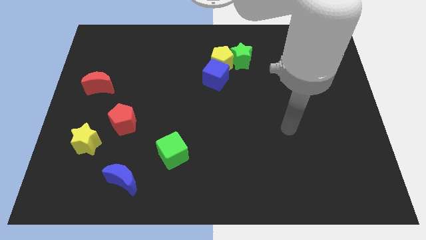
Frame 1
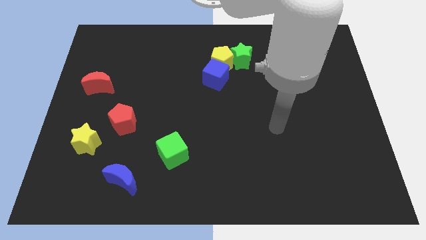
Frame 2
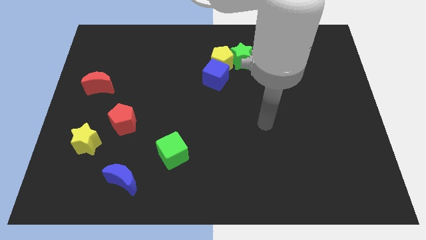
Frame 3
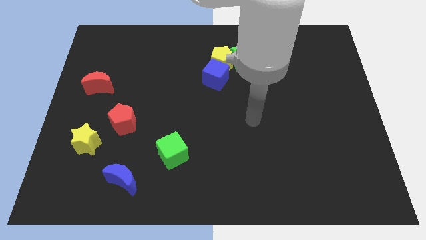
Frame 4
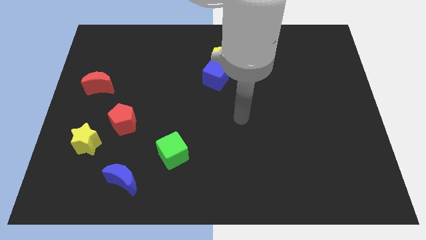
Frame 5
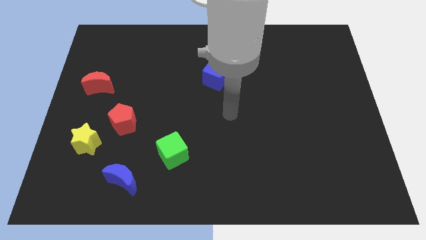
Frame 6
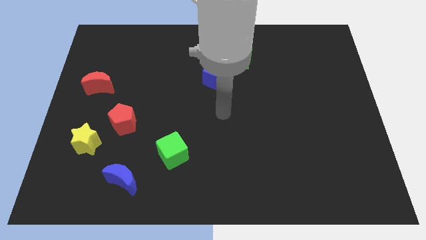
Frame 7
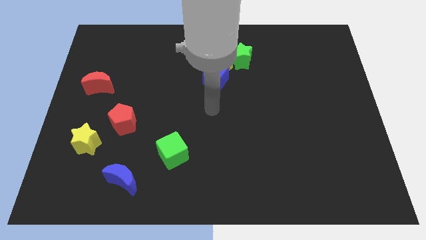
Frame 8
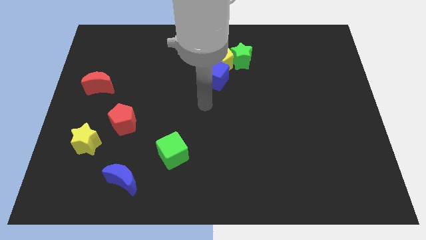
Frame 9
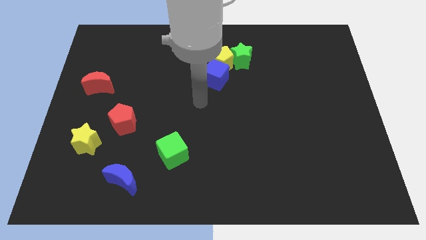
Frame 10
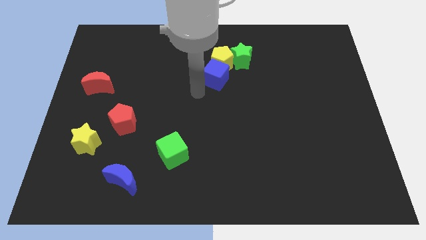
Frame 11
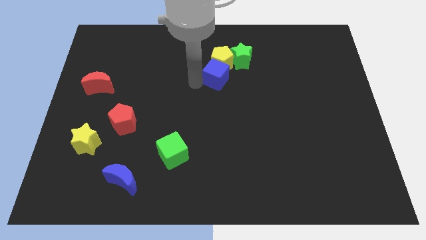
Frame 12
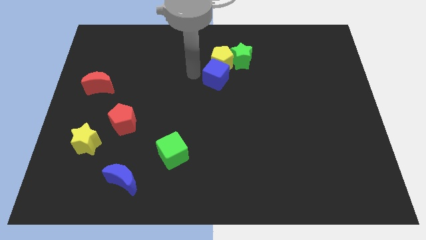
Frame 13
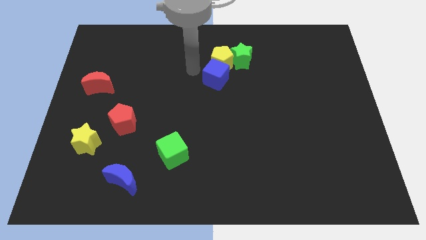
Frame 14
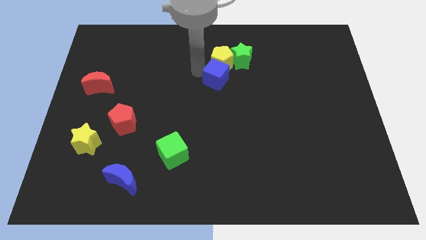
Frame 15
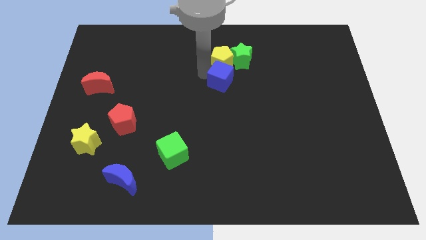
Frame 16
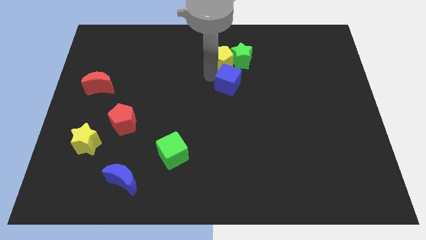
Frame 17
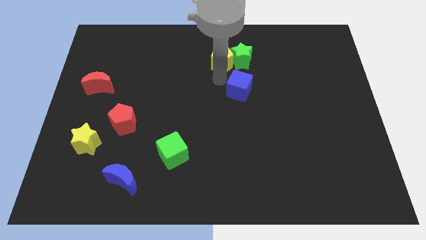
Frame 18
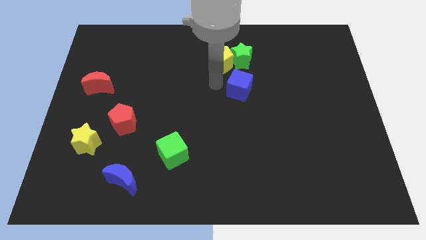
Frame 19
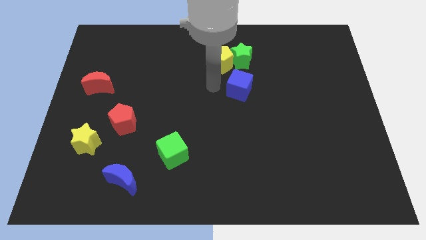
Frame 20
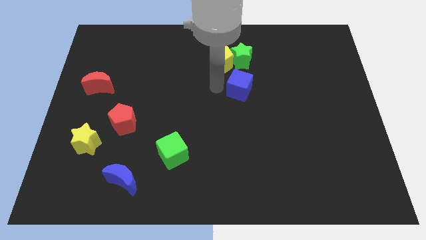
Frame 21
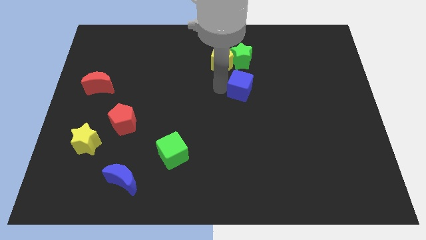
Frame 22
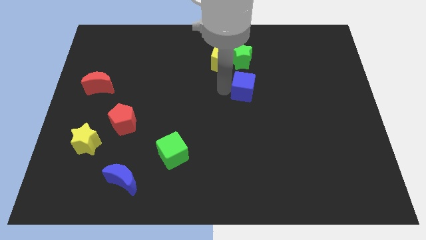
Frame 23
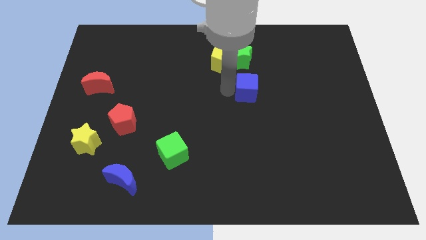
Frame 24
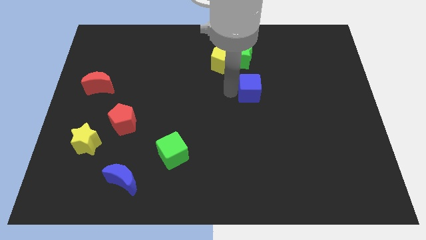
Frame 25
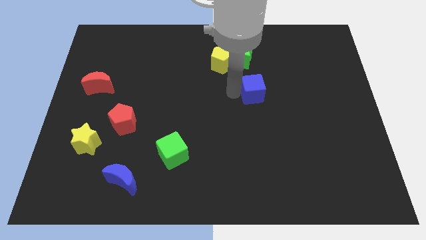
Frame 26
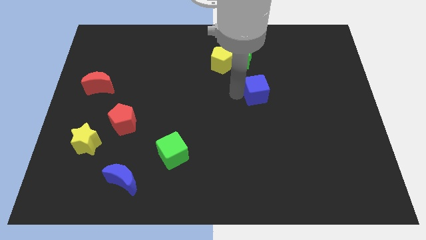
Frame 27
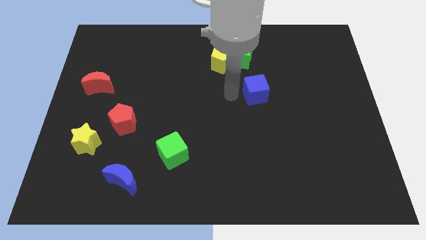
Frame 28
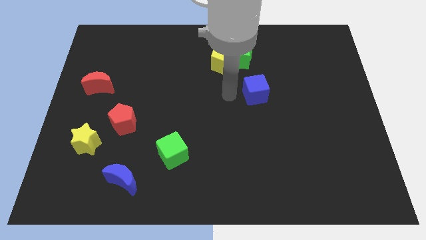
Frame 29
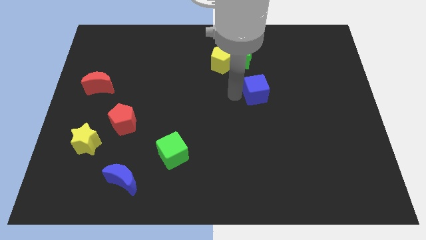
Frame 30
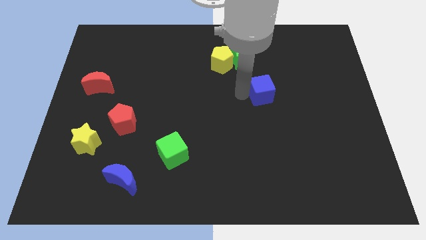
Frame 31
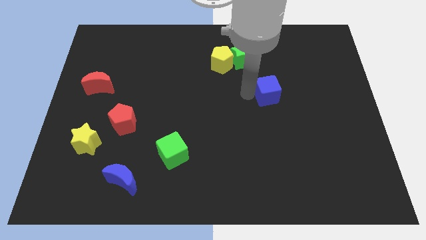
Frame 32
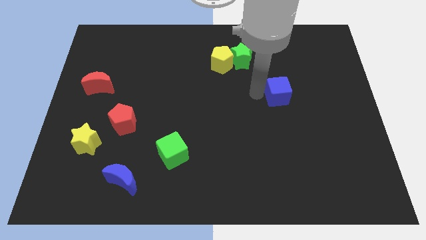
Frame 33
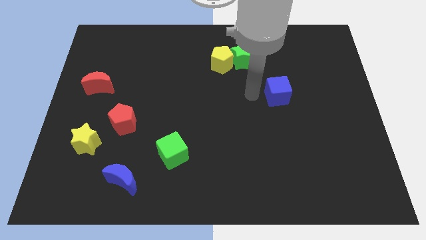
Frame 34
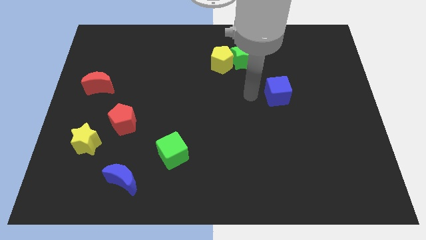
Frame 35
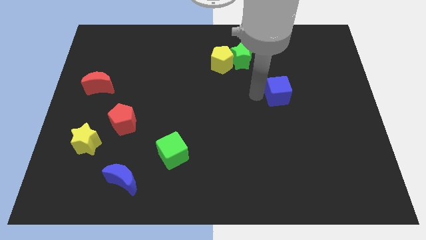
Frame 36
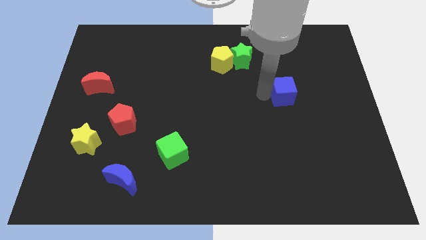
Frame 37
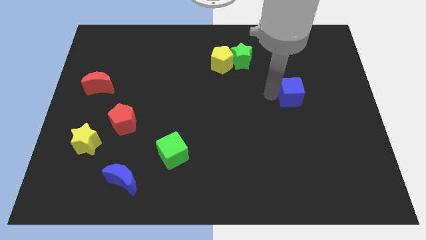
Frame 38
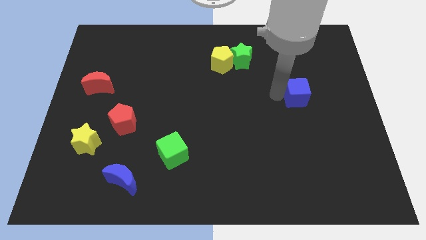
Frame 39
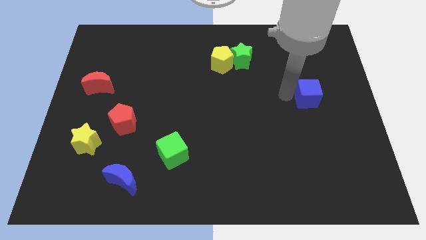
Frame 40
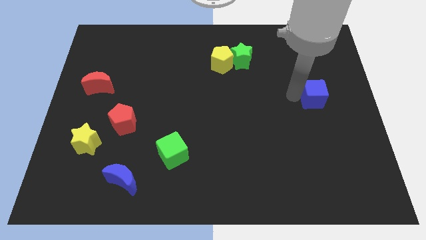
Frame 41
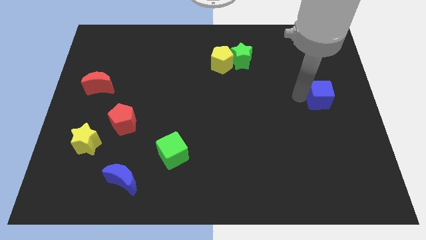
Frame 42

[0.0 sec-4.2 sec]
put the blue cube to the right side

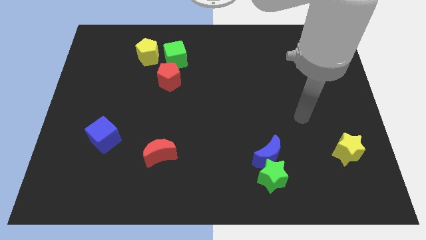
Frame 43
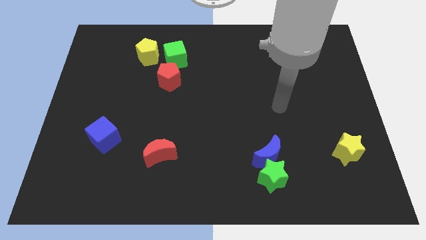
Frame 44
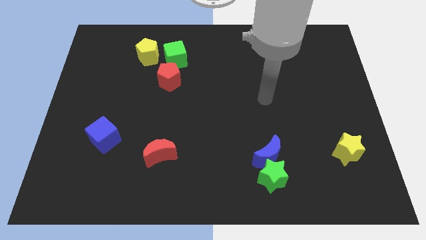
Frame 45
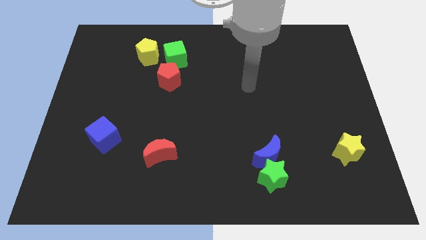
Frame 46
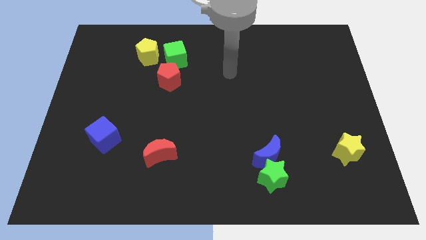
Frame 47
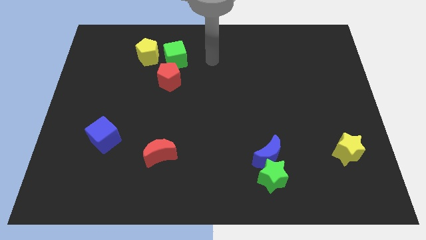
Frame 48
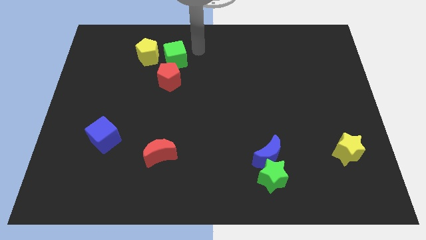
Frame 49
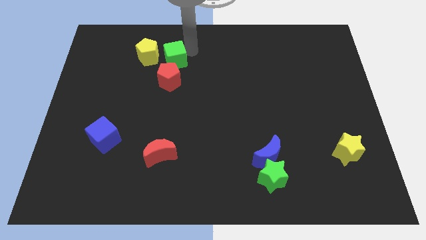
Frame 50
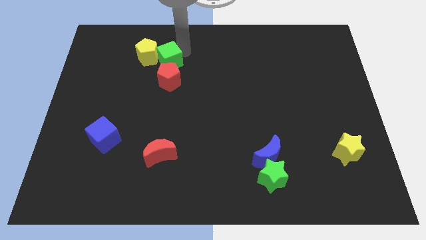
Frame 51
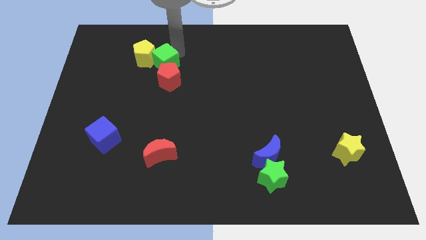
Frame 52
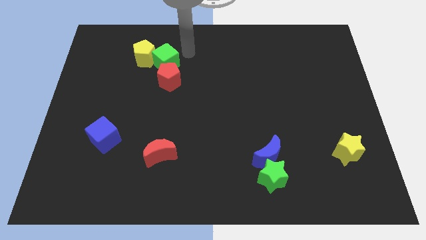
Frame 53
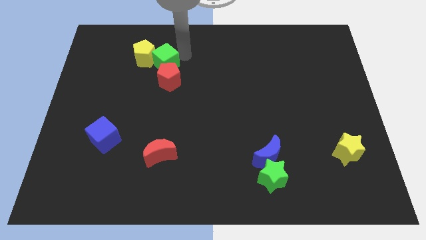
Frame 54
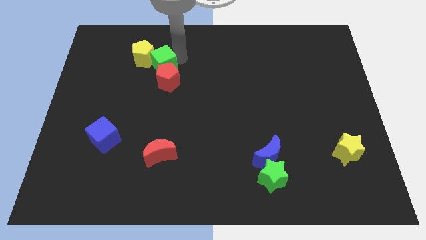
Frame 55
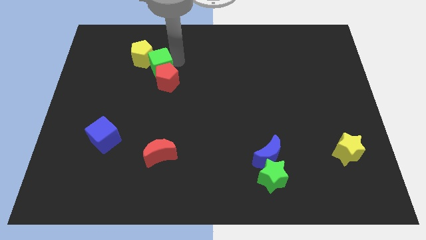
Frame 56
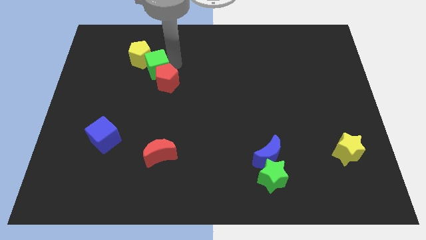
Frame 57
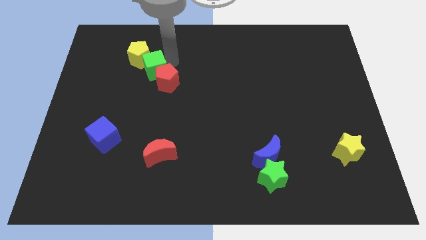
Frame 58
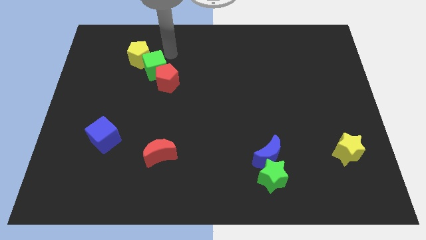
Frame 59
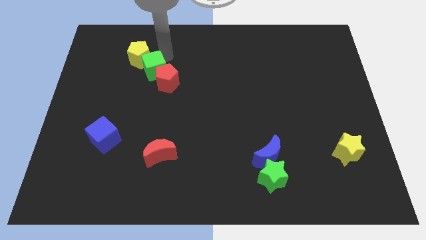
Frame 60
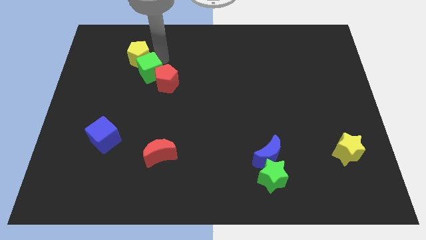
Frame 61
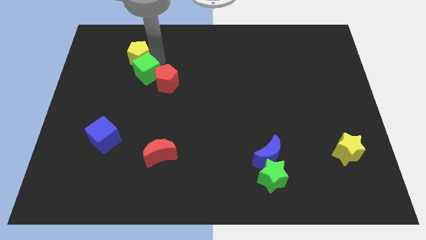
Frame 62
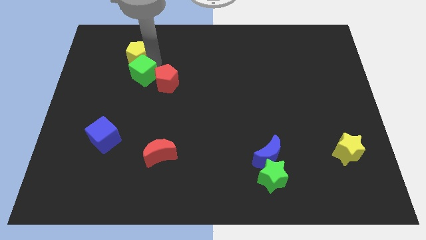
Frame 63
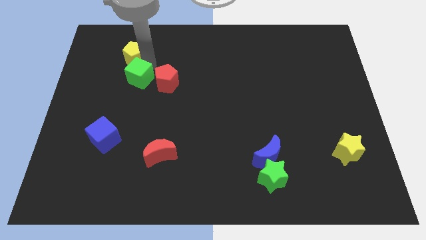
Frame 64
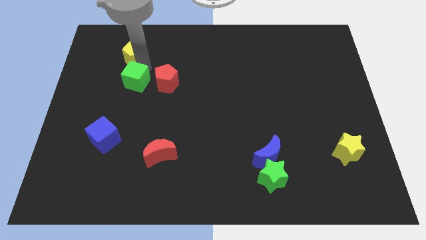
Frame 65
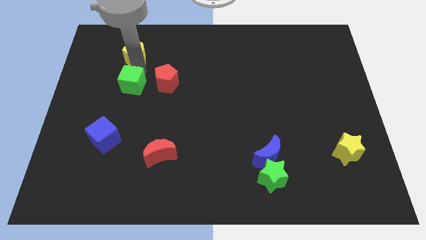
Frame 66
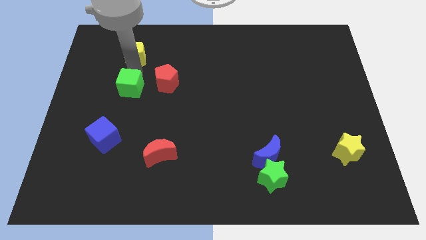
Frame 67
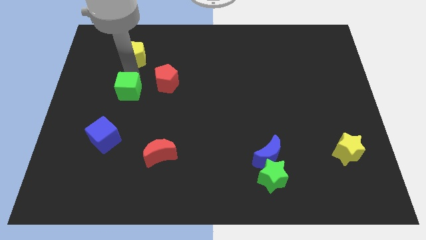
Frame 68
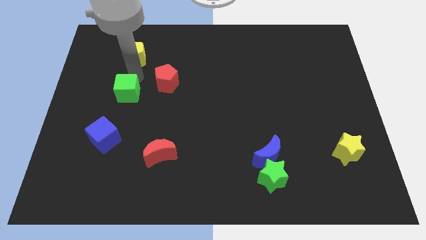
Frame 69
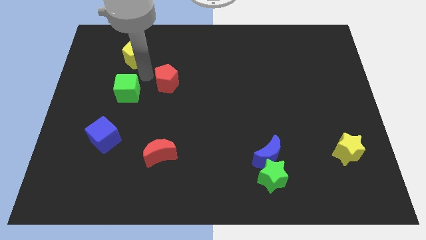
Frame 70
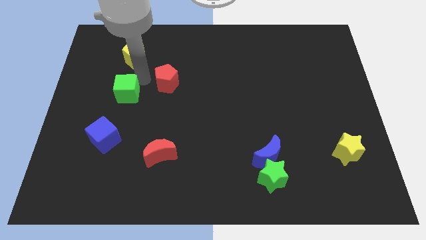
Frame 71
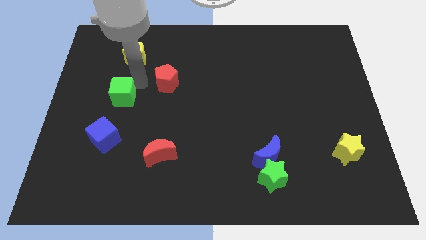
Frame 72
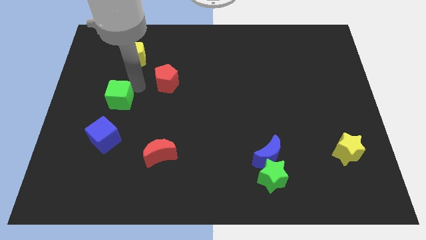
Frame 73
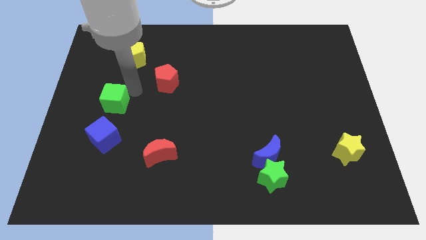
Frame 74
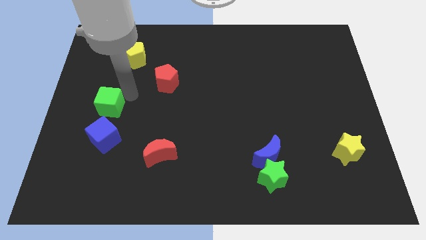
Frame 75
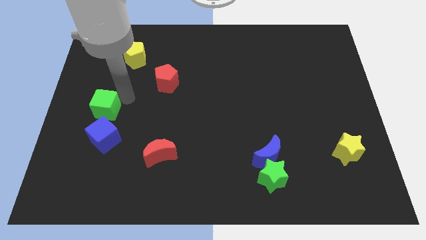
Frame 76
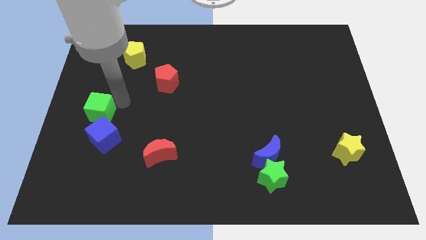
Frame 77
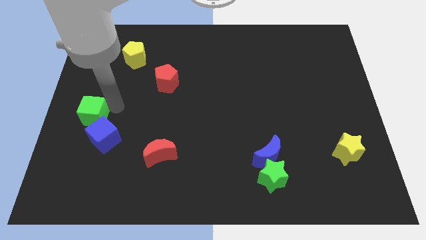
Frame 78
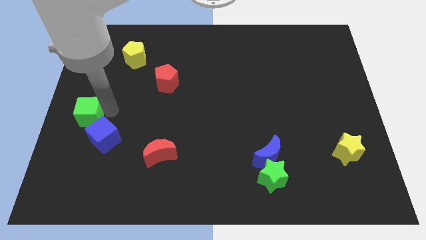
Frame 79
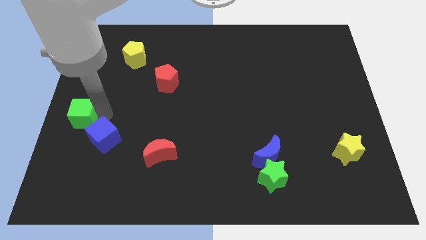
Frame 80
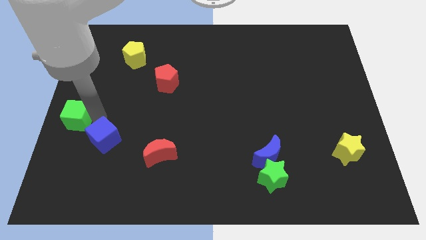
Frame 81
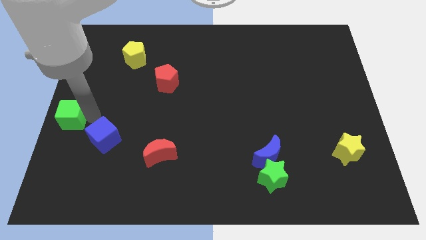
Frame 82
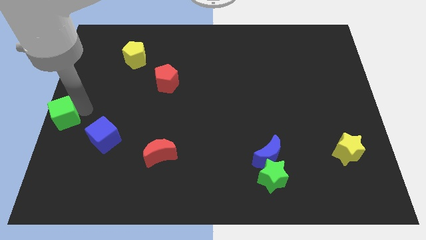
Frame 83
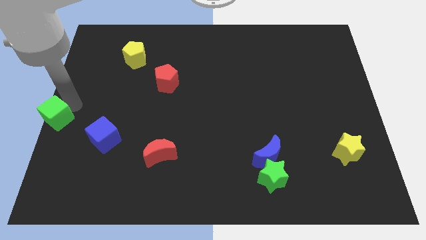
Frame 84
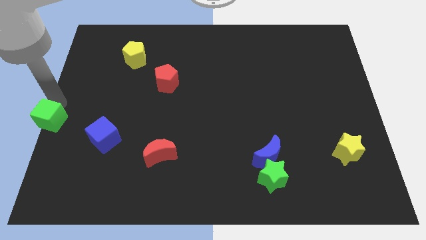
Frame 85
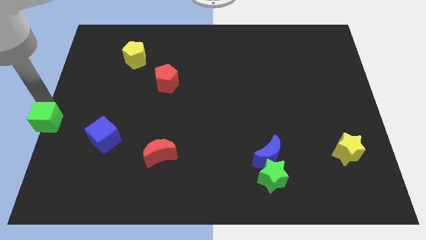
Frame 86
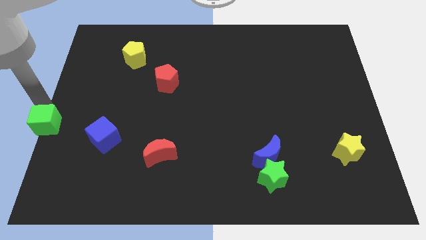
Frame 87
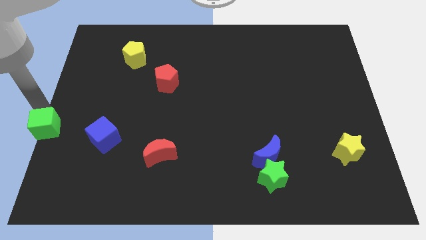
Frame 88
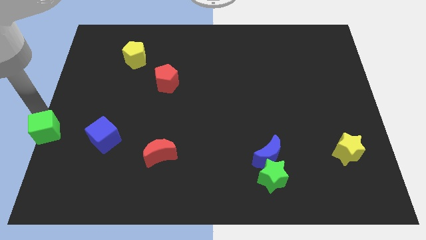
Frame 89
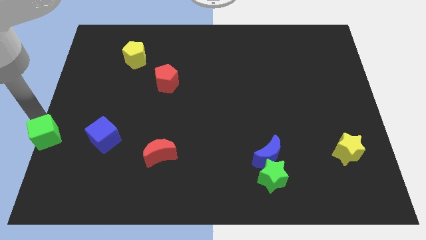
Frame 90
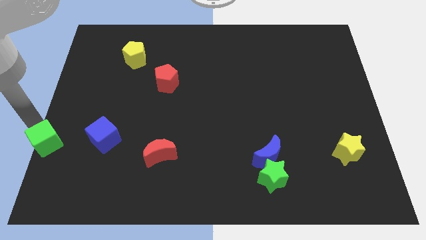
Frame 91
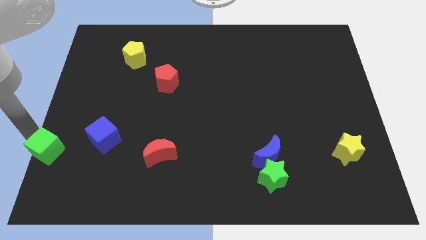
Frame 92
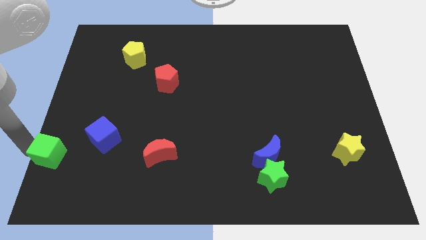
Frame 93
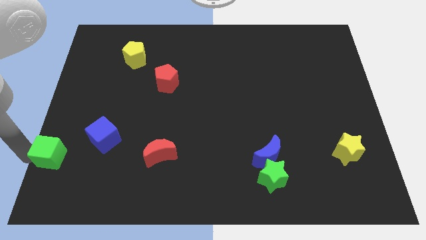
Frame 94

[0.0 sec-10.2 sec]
move the green cube to the lower left corner
